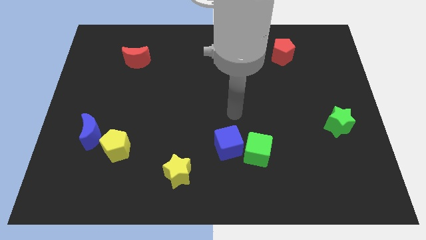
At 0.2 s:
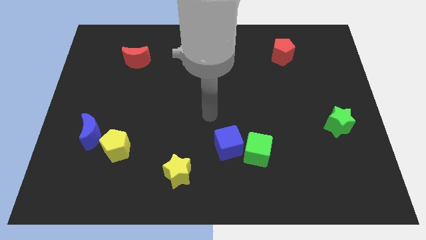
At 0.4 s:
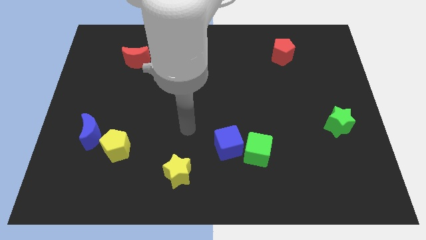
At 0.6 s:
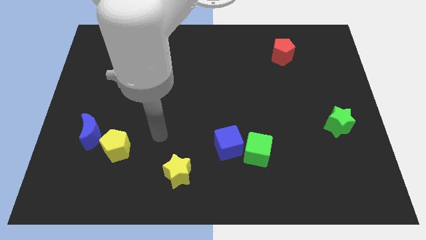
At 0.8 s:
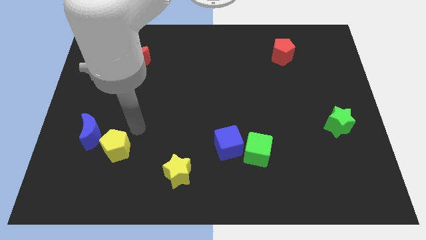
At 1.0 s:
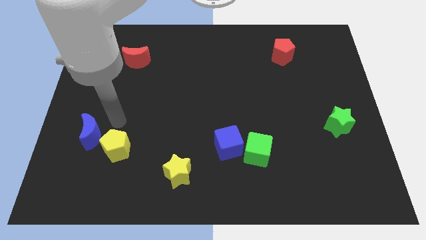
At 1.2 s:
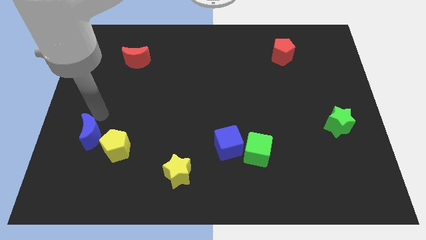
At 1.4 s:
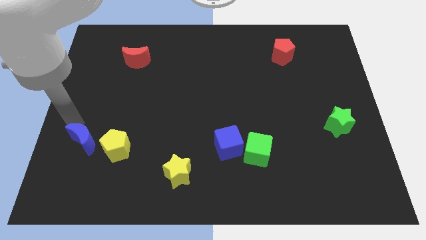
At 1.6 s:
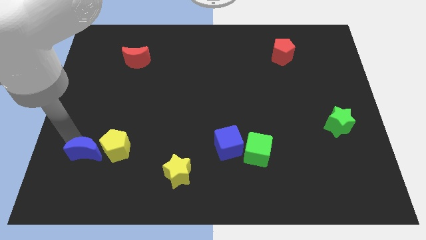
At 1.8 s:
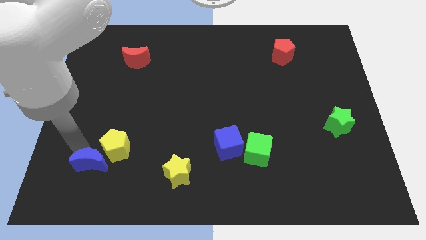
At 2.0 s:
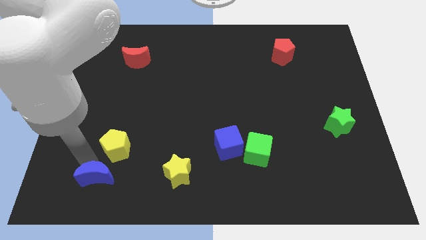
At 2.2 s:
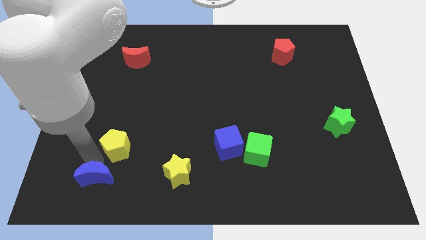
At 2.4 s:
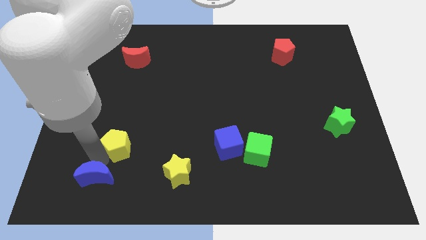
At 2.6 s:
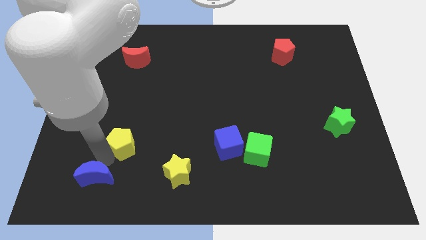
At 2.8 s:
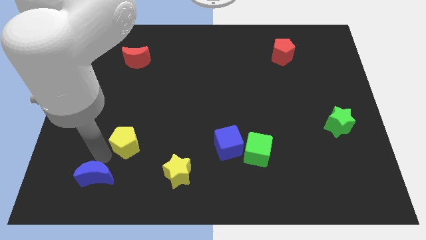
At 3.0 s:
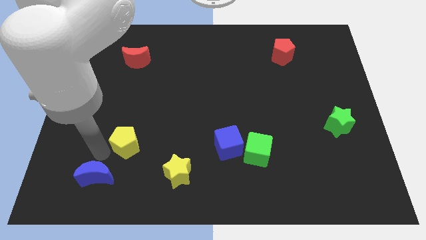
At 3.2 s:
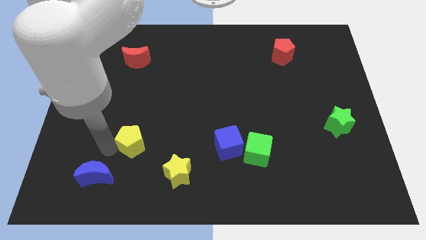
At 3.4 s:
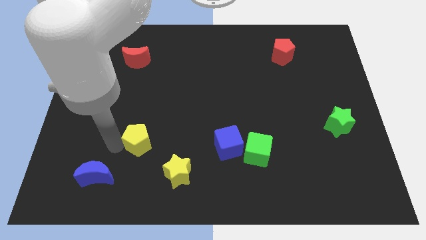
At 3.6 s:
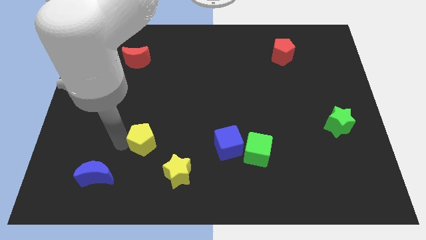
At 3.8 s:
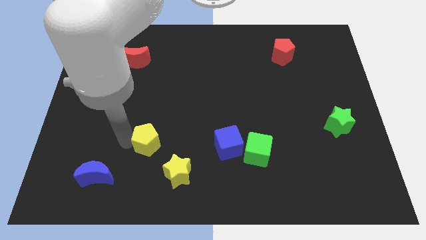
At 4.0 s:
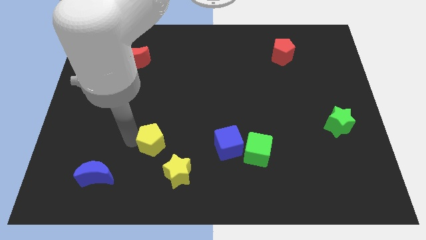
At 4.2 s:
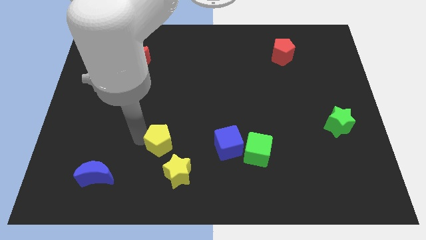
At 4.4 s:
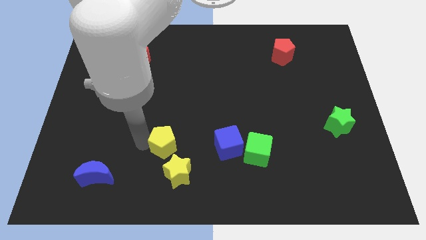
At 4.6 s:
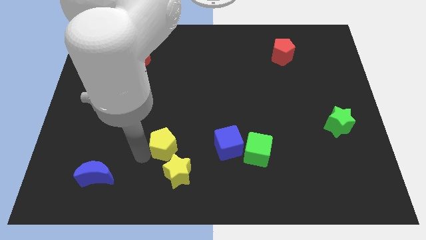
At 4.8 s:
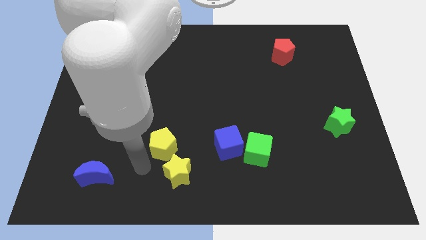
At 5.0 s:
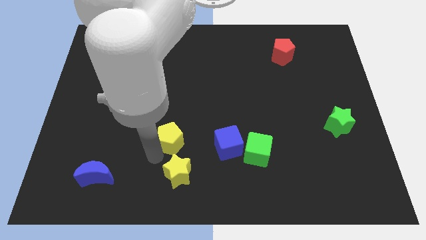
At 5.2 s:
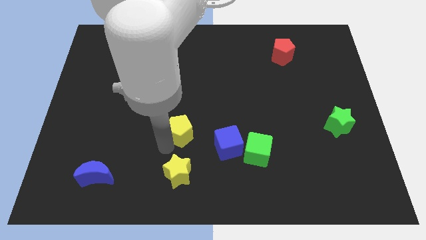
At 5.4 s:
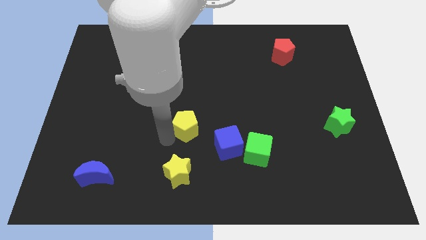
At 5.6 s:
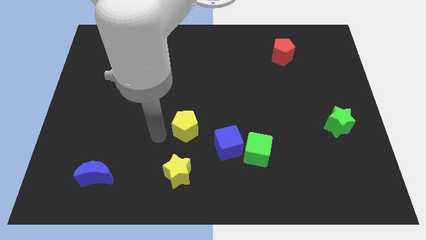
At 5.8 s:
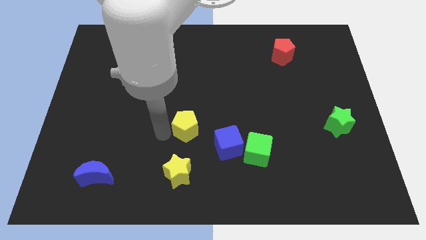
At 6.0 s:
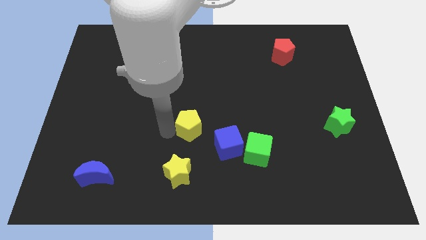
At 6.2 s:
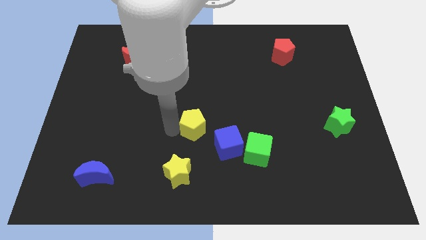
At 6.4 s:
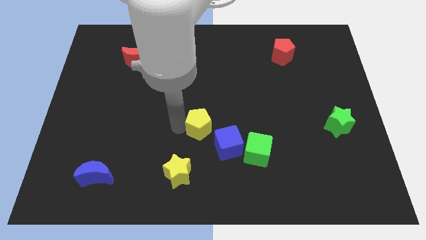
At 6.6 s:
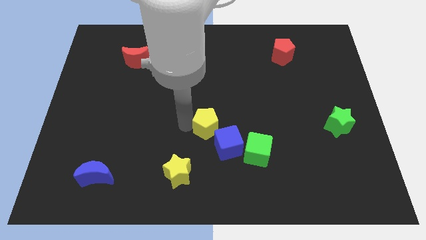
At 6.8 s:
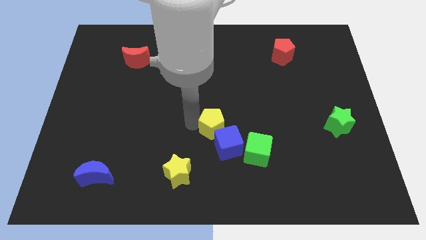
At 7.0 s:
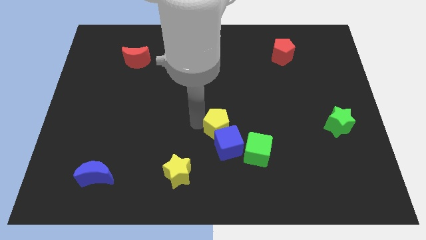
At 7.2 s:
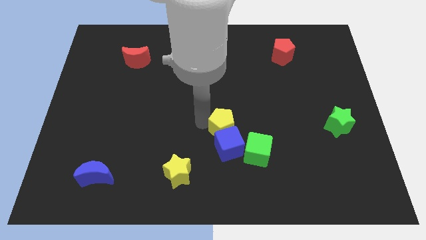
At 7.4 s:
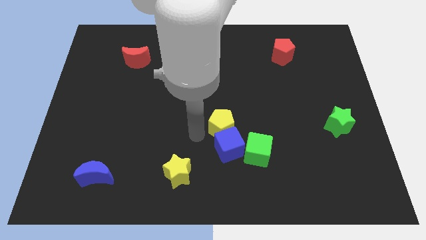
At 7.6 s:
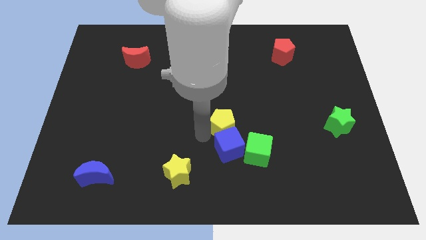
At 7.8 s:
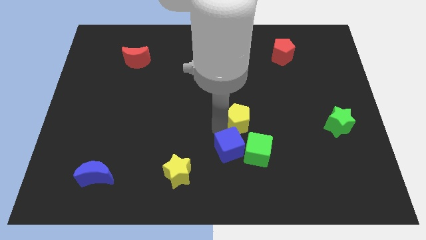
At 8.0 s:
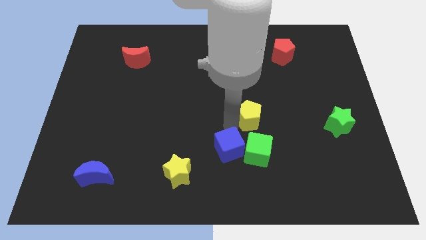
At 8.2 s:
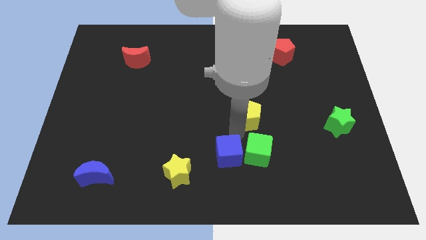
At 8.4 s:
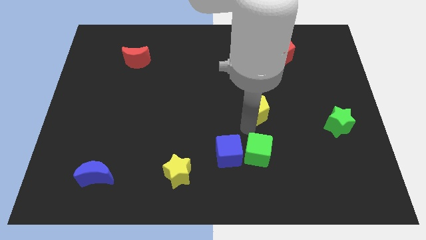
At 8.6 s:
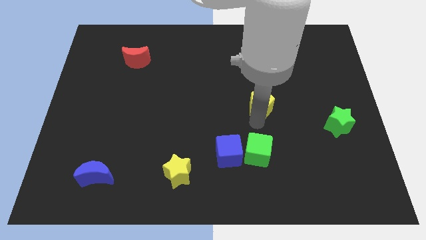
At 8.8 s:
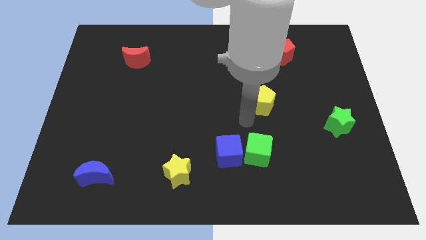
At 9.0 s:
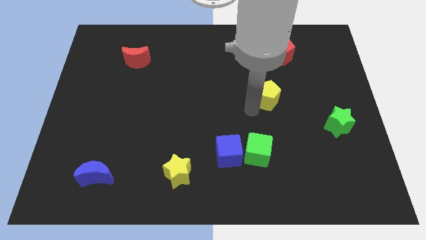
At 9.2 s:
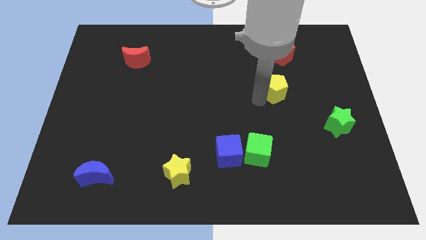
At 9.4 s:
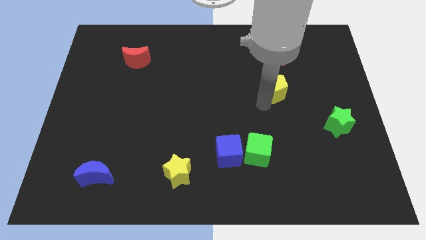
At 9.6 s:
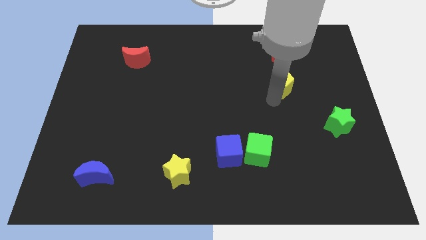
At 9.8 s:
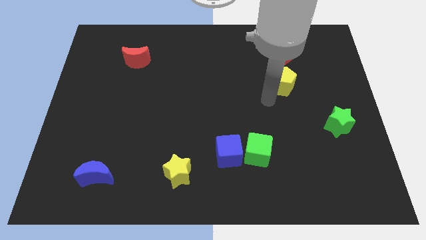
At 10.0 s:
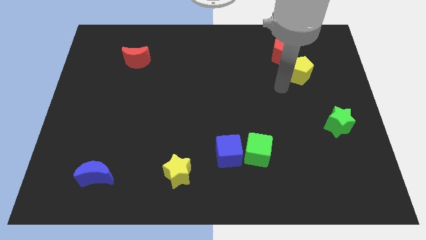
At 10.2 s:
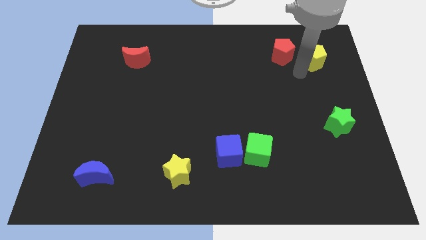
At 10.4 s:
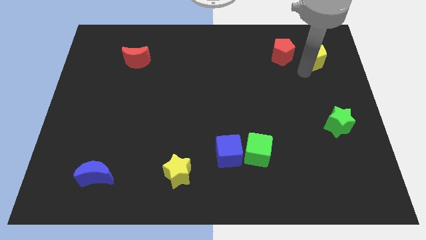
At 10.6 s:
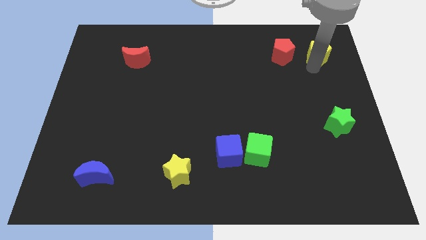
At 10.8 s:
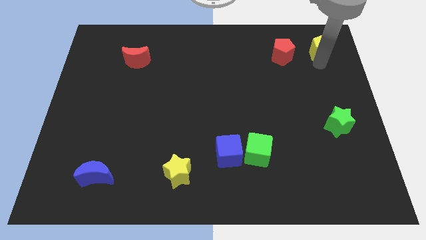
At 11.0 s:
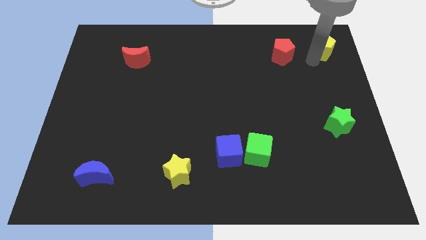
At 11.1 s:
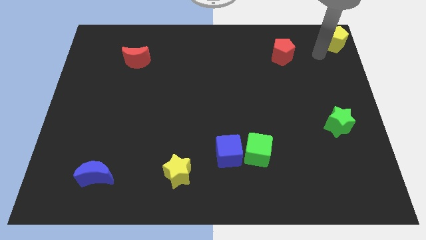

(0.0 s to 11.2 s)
put the yellow pentagon to the top right of the board

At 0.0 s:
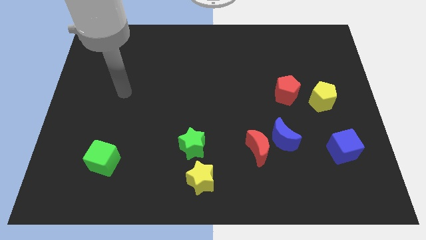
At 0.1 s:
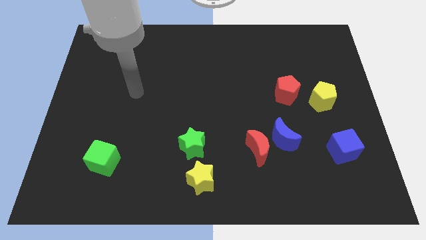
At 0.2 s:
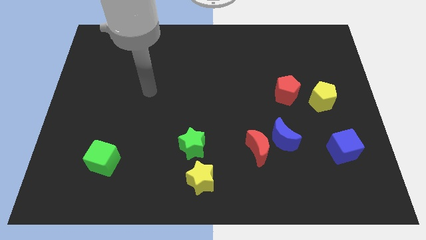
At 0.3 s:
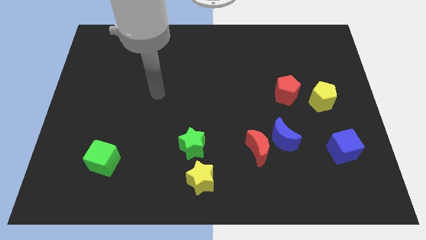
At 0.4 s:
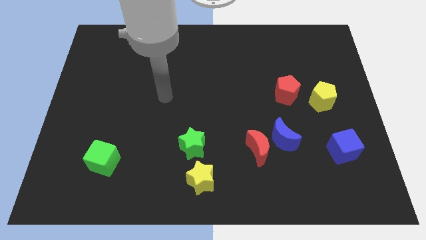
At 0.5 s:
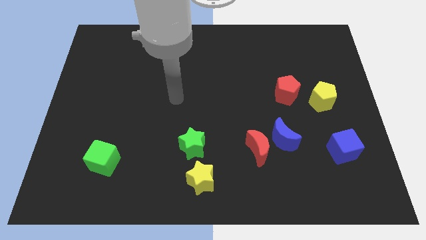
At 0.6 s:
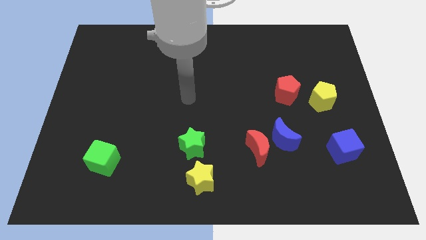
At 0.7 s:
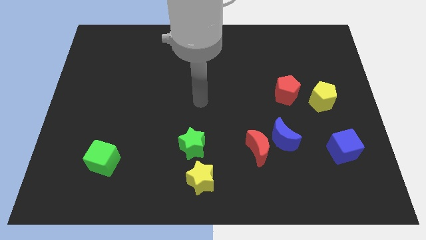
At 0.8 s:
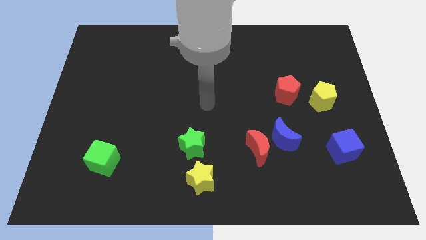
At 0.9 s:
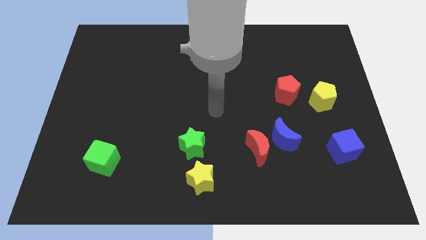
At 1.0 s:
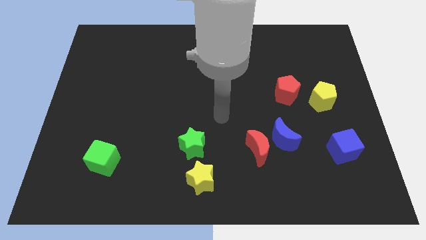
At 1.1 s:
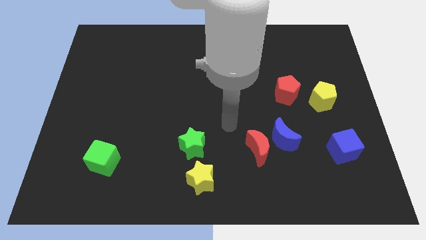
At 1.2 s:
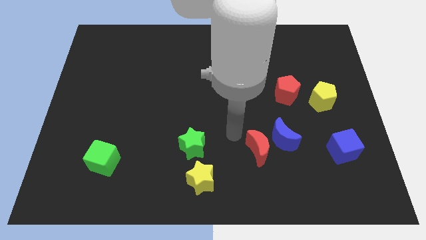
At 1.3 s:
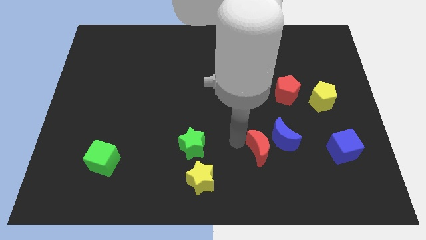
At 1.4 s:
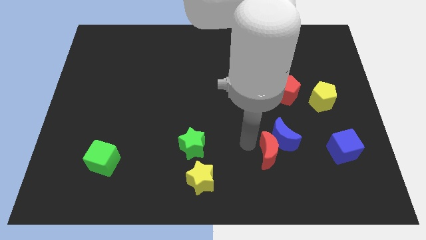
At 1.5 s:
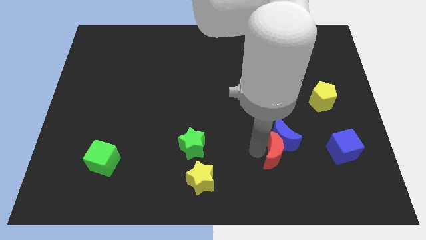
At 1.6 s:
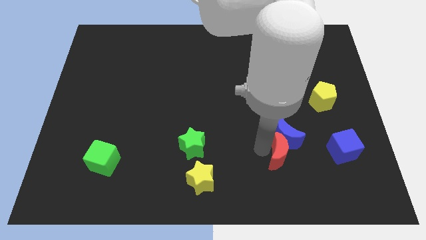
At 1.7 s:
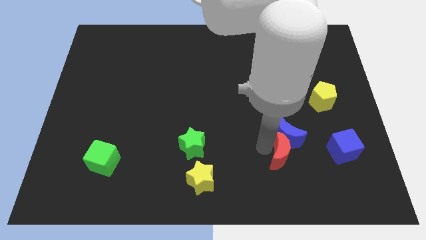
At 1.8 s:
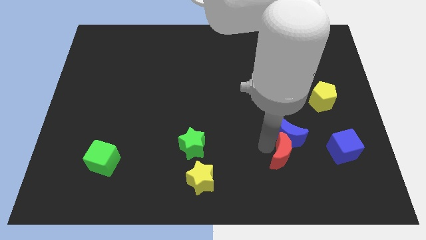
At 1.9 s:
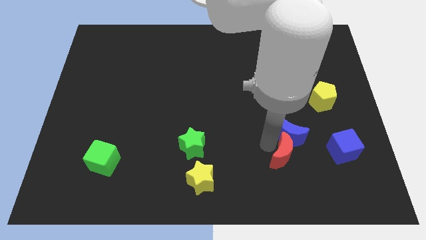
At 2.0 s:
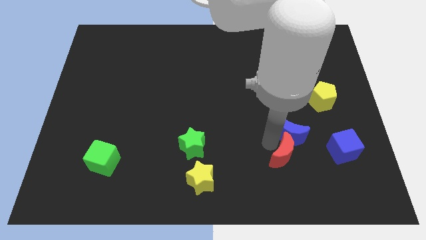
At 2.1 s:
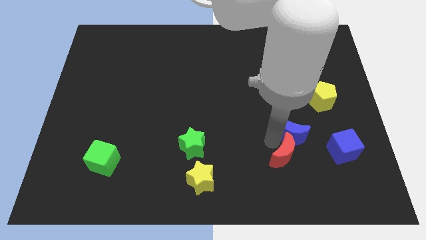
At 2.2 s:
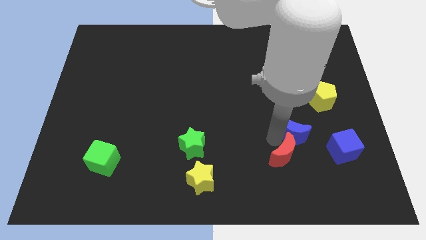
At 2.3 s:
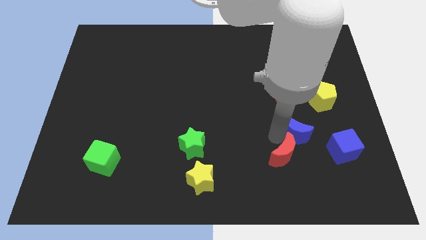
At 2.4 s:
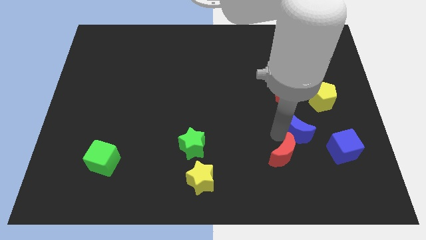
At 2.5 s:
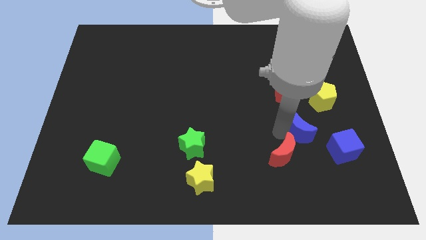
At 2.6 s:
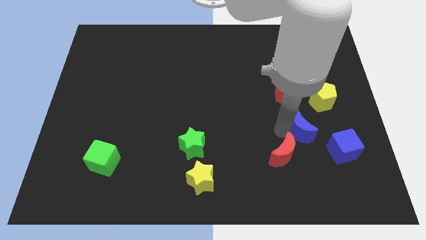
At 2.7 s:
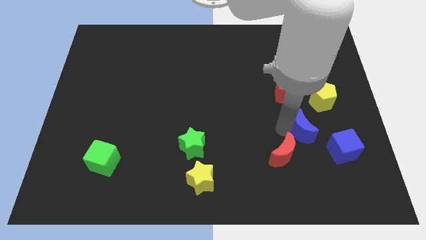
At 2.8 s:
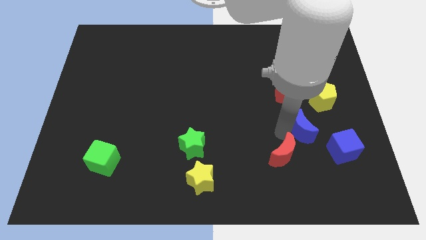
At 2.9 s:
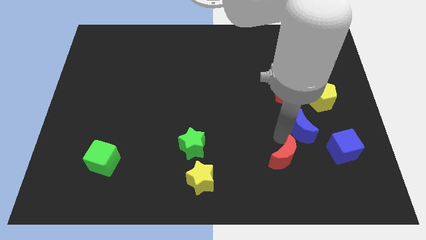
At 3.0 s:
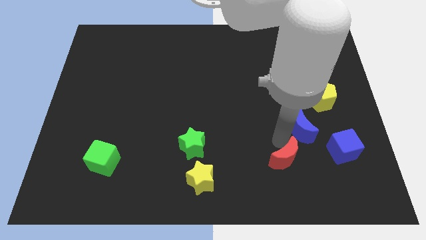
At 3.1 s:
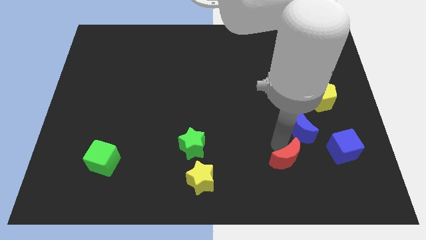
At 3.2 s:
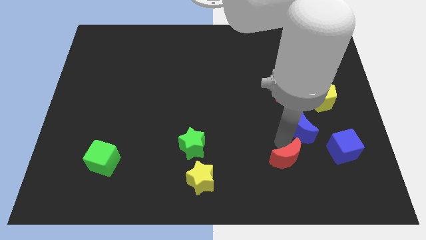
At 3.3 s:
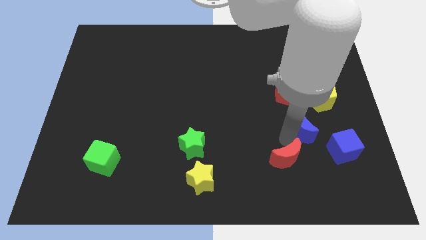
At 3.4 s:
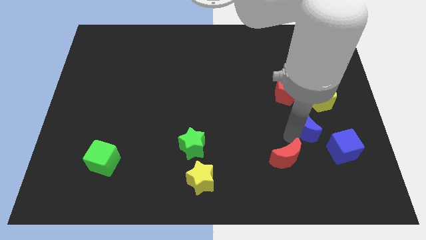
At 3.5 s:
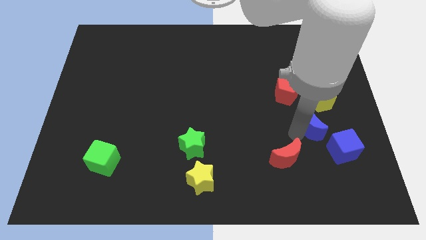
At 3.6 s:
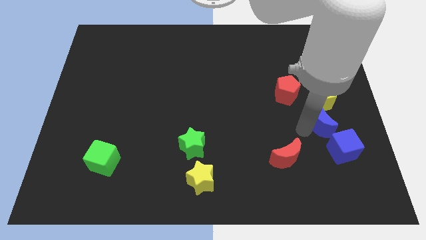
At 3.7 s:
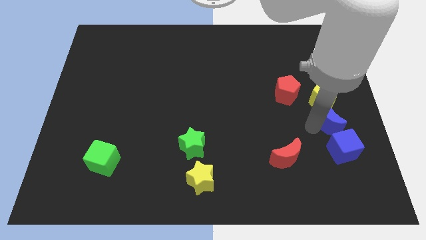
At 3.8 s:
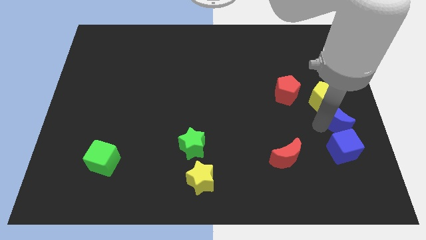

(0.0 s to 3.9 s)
move the blue moon to the center right
